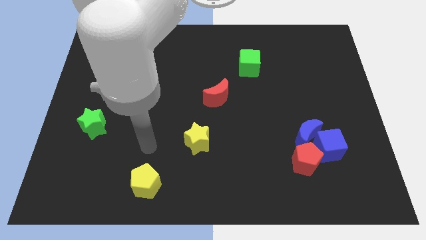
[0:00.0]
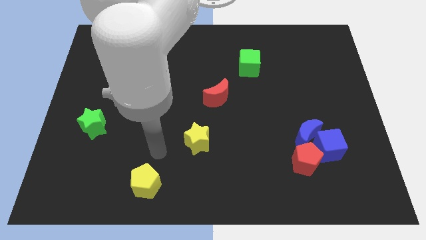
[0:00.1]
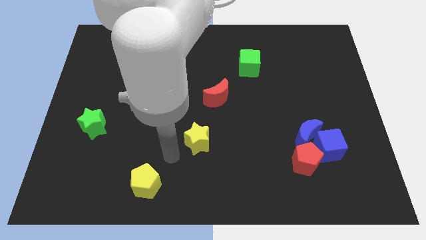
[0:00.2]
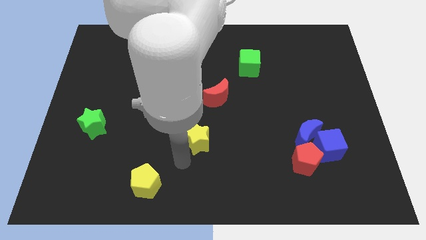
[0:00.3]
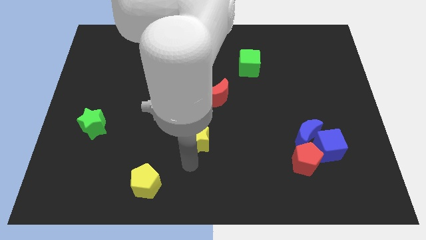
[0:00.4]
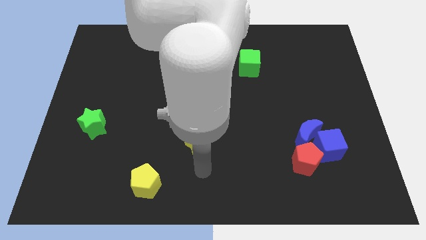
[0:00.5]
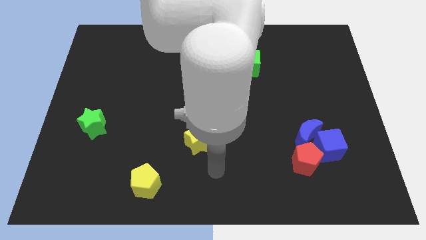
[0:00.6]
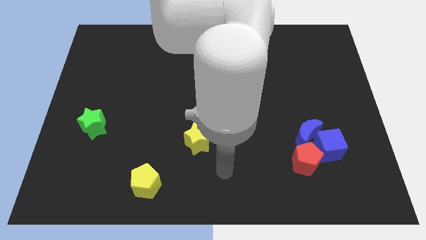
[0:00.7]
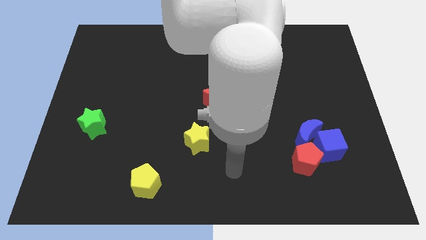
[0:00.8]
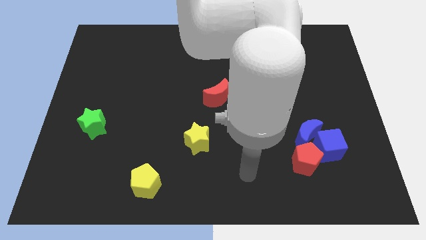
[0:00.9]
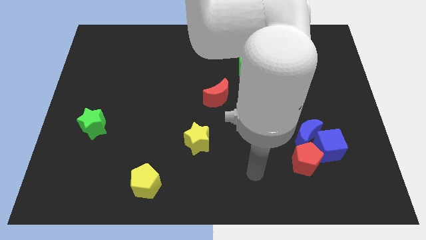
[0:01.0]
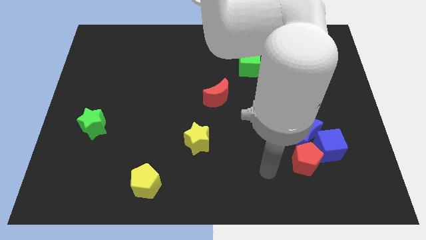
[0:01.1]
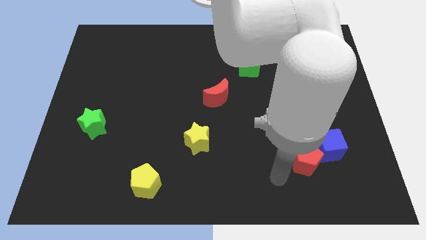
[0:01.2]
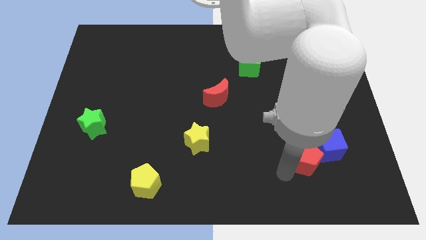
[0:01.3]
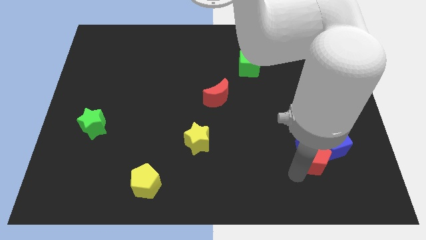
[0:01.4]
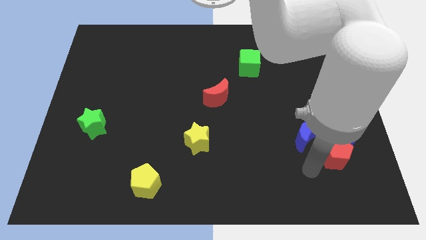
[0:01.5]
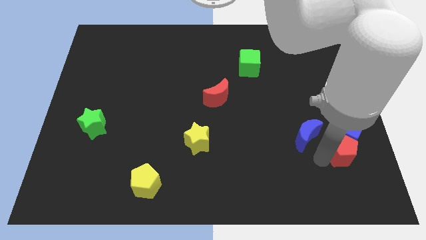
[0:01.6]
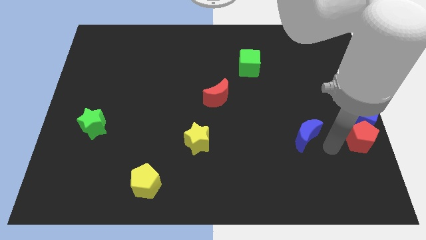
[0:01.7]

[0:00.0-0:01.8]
move the blue moon away from the blue cube and red pentagon

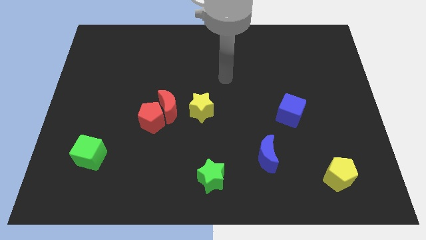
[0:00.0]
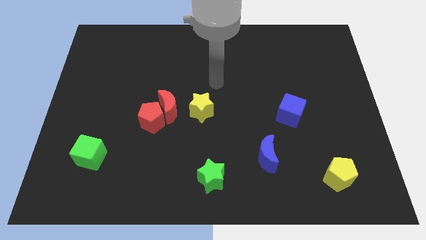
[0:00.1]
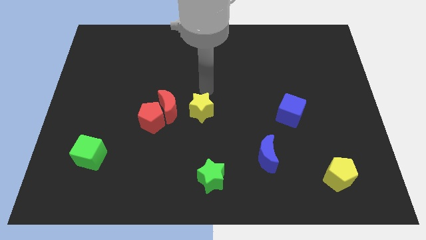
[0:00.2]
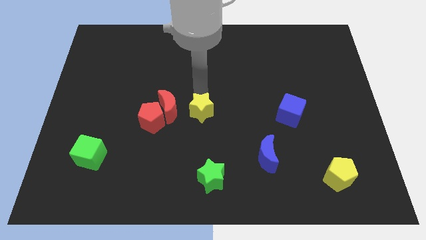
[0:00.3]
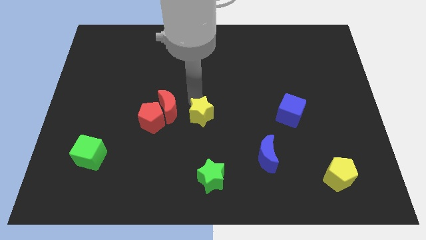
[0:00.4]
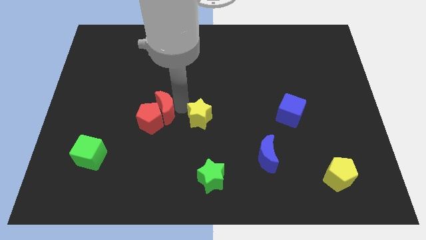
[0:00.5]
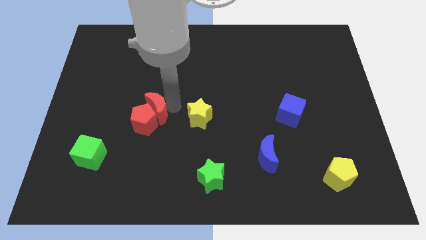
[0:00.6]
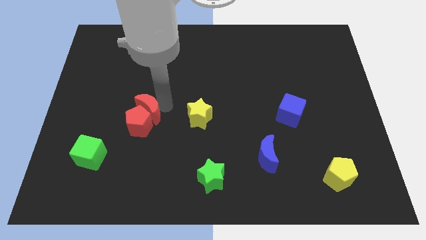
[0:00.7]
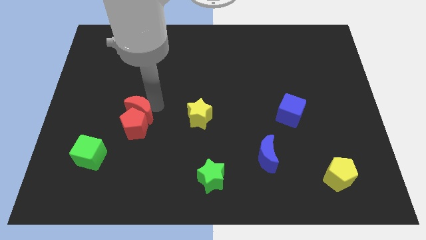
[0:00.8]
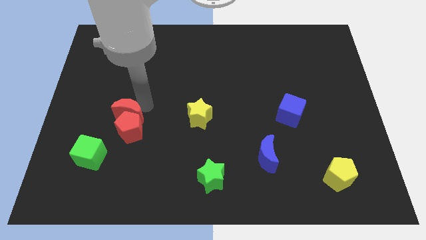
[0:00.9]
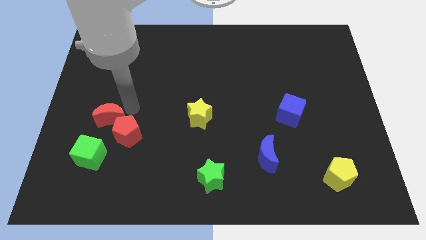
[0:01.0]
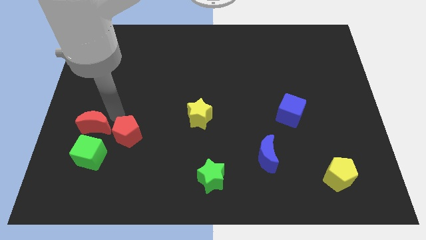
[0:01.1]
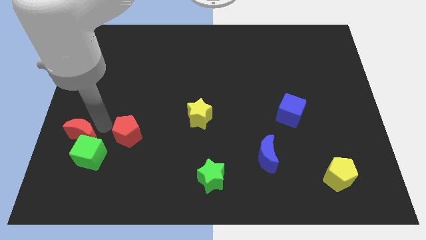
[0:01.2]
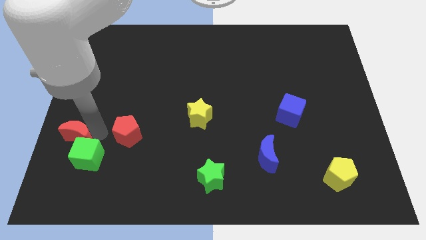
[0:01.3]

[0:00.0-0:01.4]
pull the red pentagon apart from the red moon

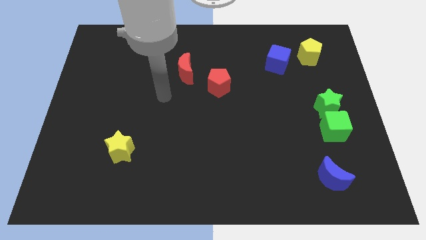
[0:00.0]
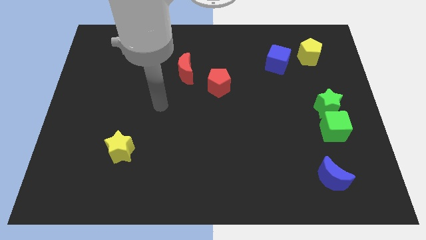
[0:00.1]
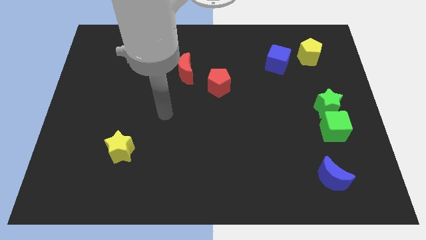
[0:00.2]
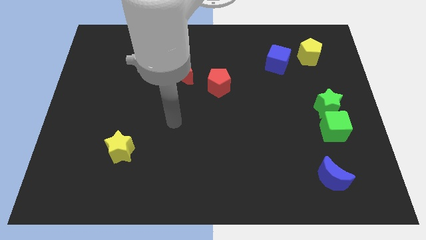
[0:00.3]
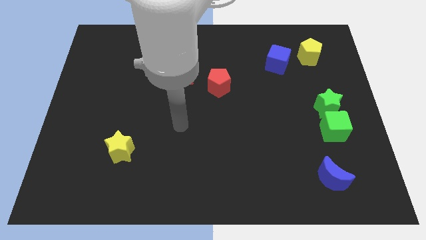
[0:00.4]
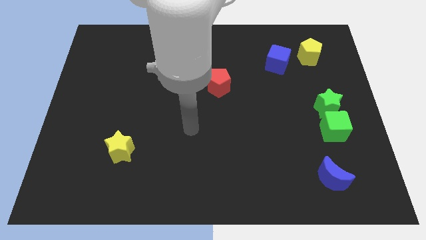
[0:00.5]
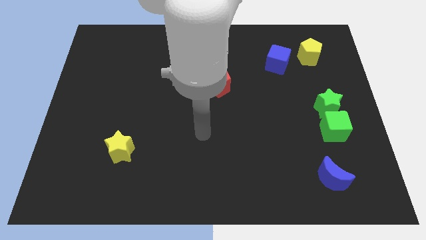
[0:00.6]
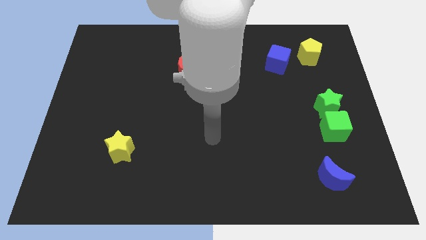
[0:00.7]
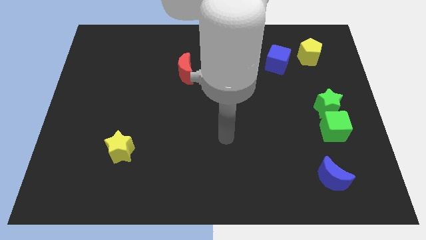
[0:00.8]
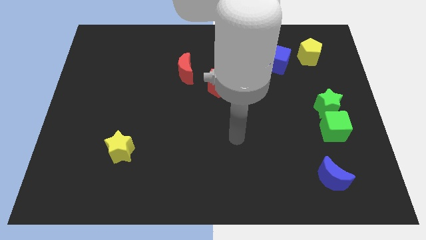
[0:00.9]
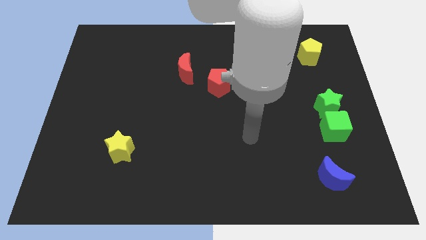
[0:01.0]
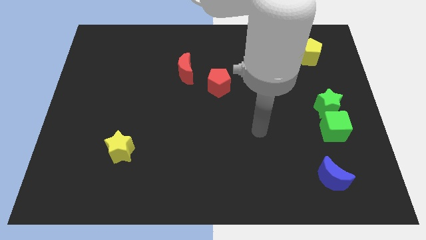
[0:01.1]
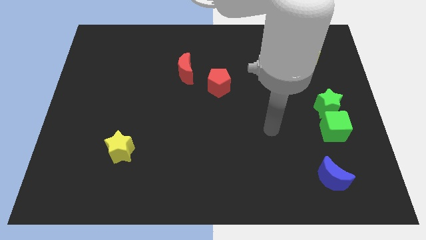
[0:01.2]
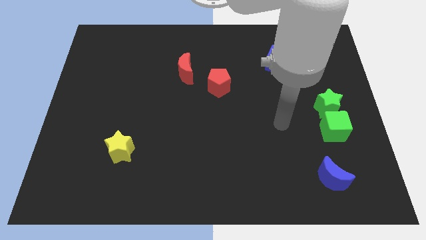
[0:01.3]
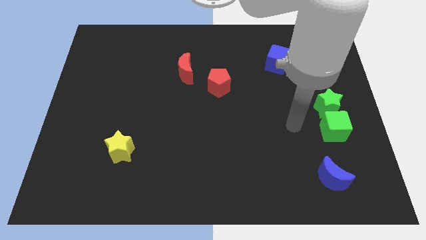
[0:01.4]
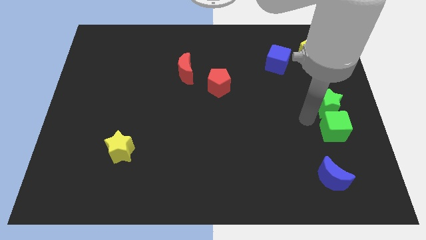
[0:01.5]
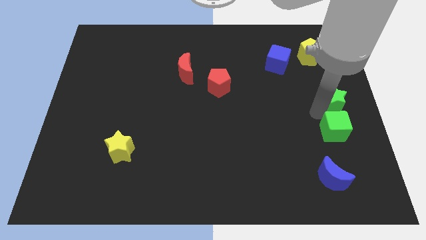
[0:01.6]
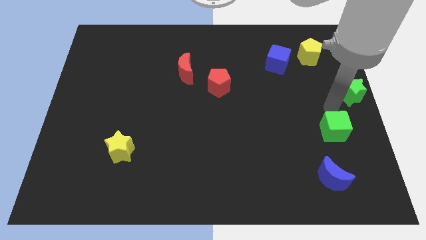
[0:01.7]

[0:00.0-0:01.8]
separate the green cube from the green star

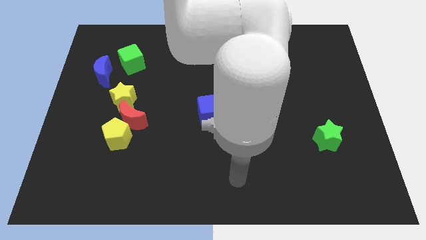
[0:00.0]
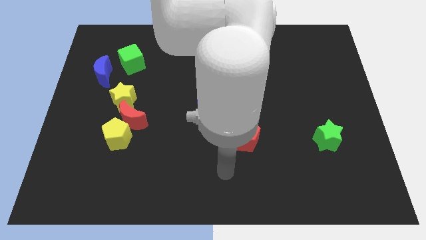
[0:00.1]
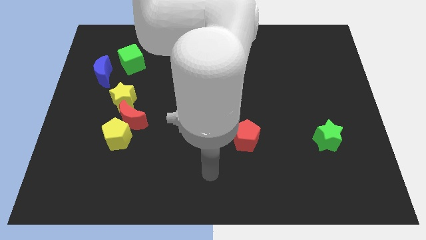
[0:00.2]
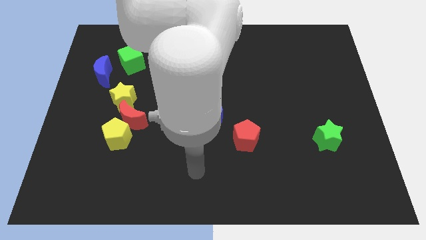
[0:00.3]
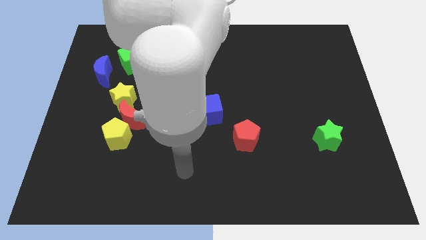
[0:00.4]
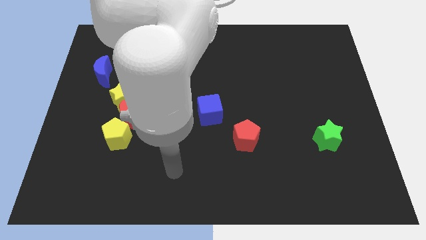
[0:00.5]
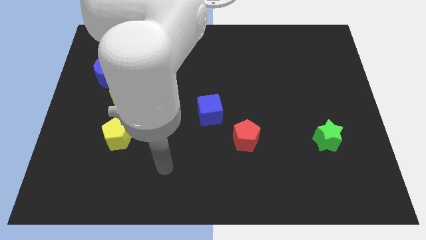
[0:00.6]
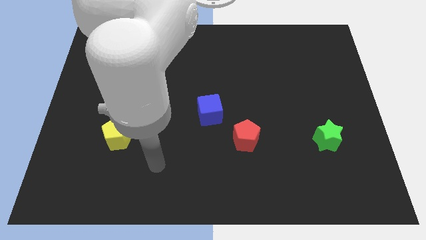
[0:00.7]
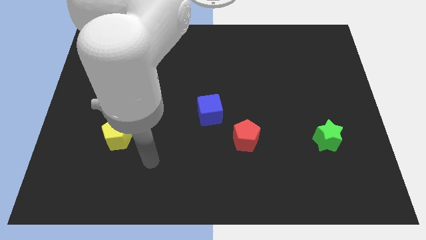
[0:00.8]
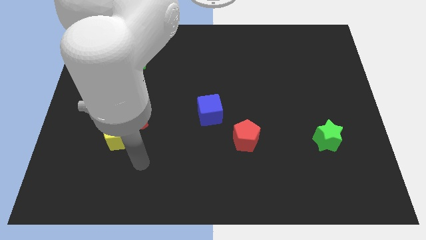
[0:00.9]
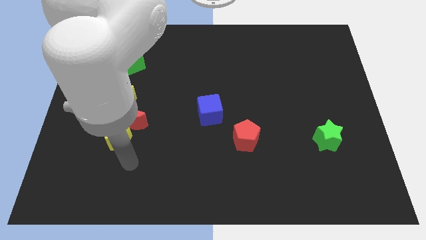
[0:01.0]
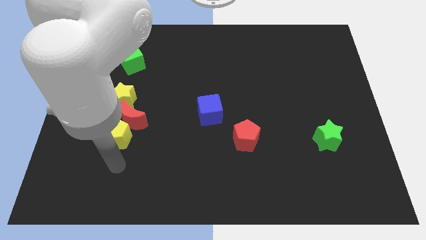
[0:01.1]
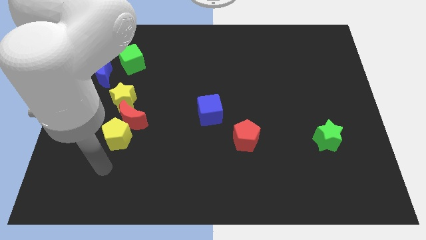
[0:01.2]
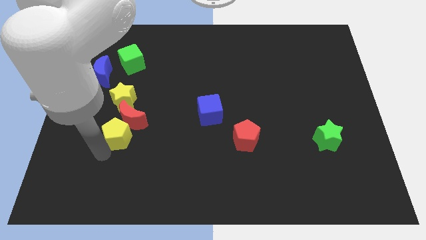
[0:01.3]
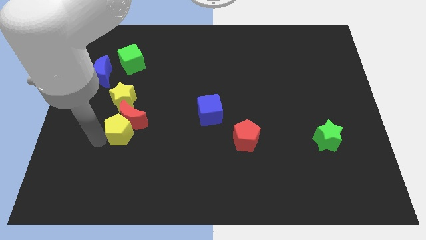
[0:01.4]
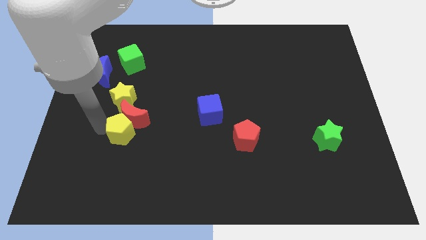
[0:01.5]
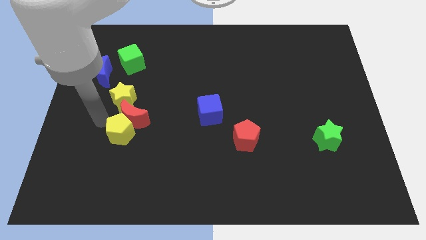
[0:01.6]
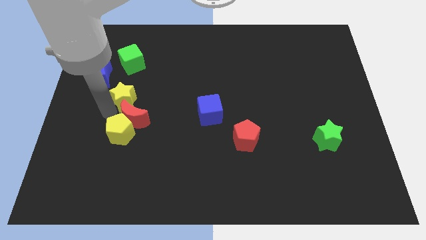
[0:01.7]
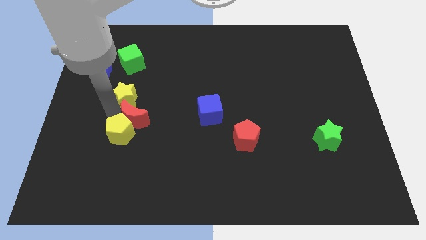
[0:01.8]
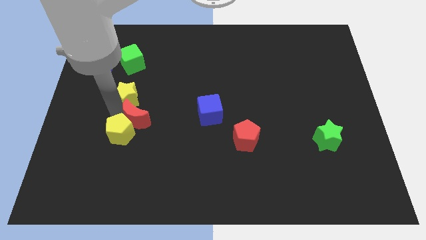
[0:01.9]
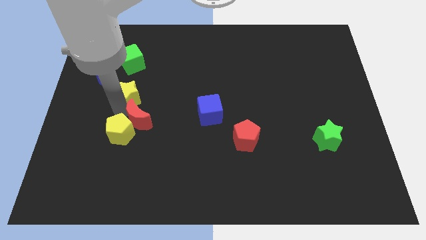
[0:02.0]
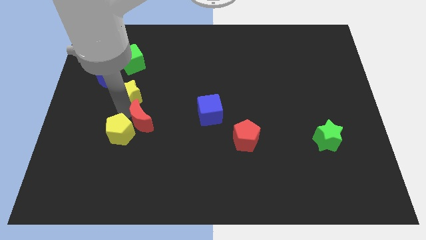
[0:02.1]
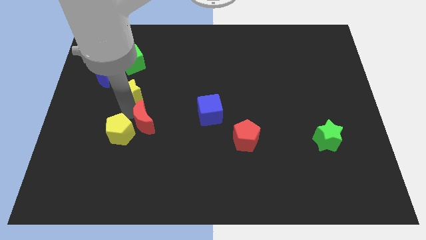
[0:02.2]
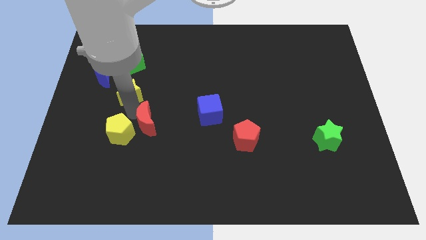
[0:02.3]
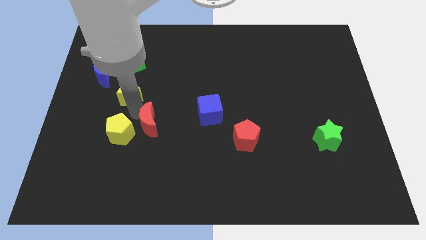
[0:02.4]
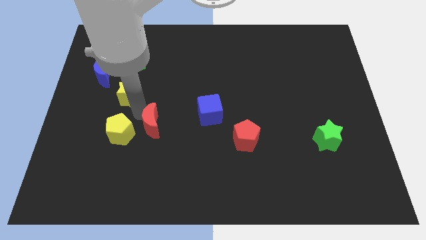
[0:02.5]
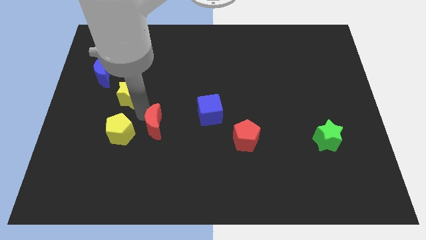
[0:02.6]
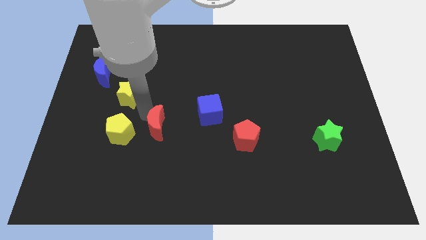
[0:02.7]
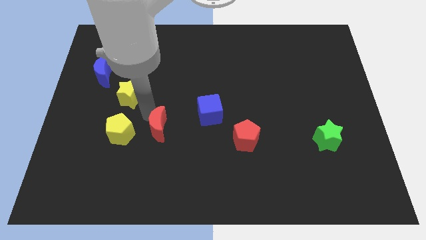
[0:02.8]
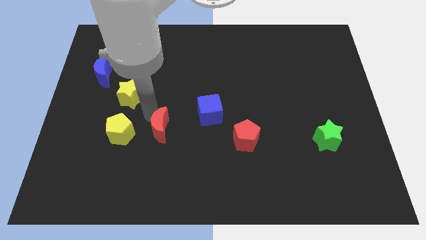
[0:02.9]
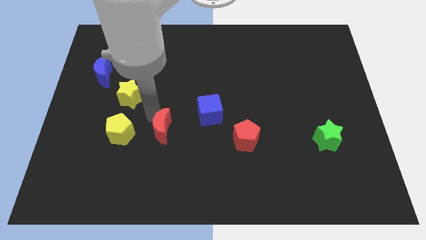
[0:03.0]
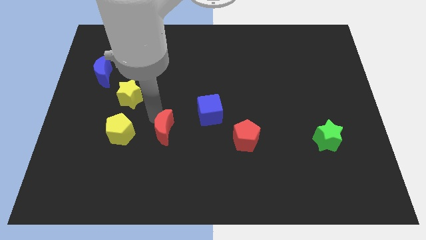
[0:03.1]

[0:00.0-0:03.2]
separate the red moon from the yellow pentagon and yellow star

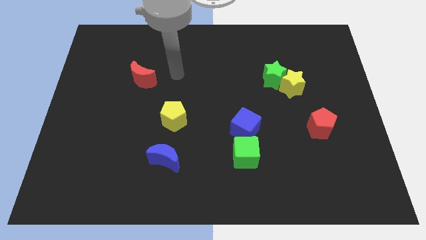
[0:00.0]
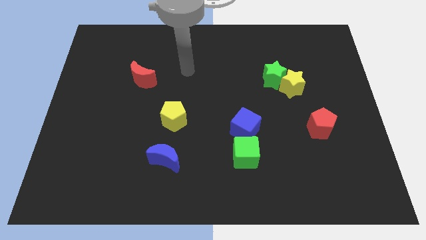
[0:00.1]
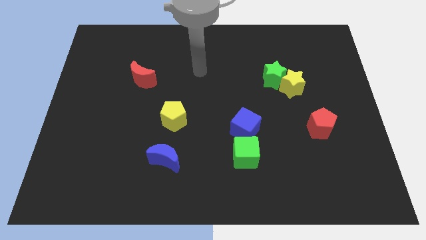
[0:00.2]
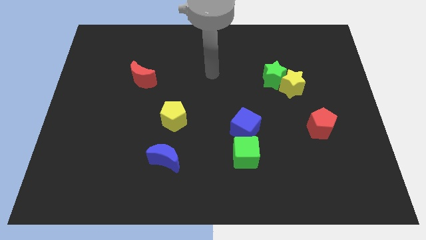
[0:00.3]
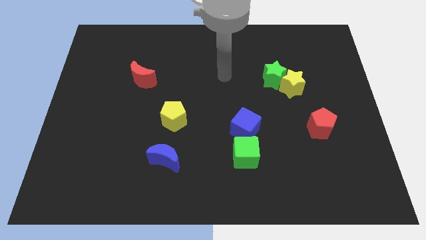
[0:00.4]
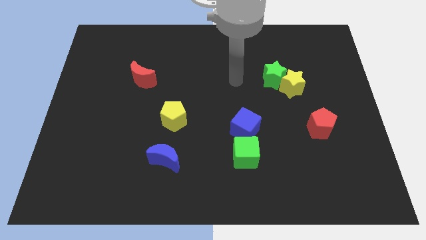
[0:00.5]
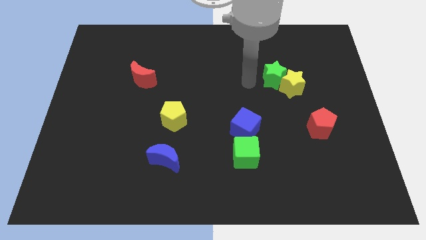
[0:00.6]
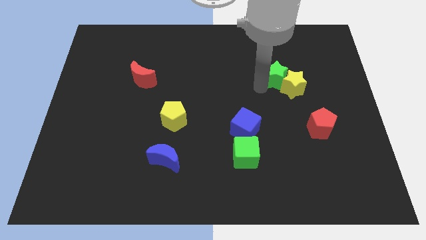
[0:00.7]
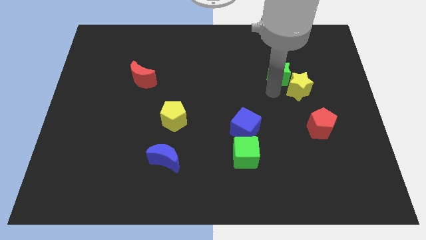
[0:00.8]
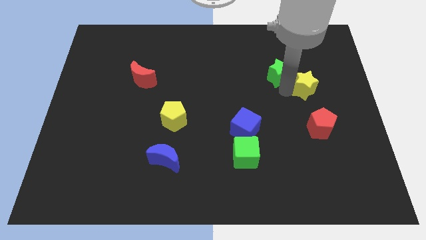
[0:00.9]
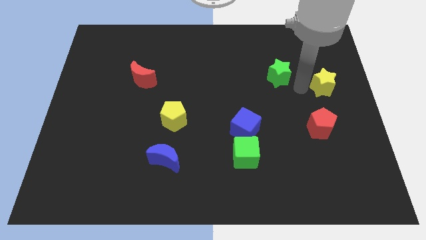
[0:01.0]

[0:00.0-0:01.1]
move the green star away from the yellow star
